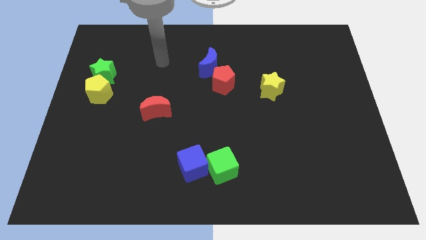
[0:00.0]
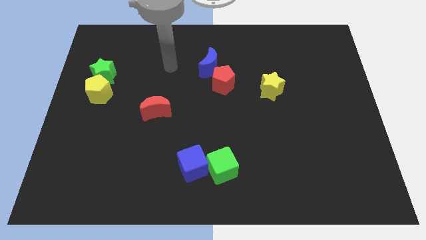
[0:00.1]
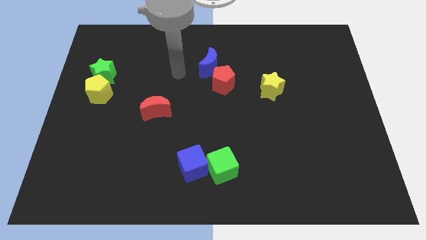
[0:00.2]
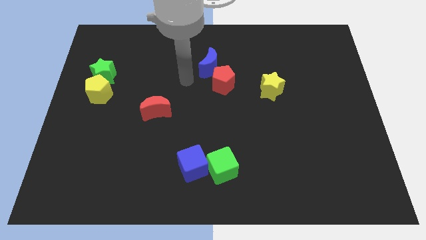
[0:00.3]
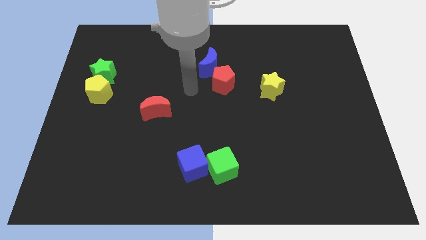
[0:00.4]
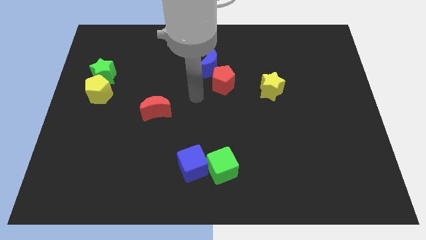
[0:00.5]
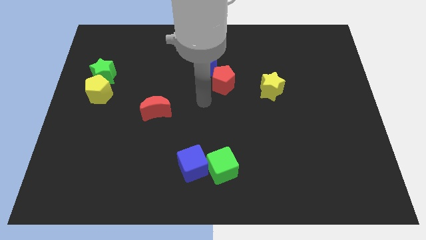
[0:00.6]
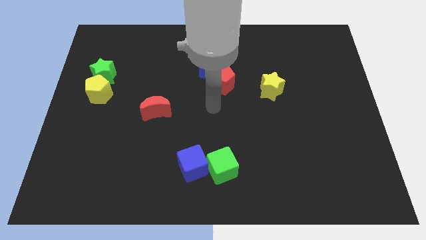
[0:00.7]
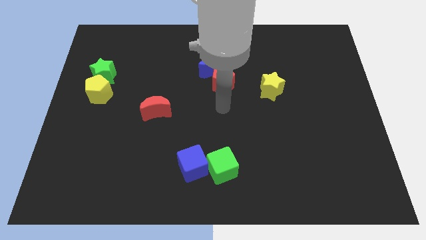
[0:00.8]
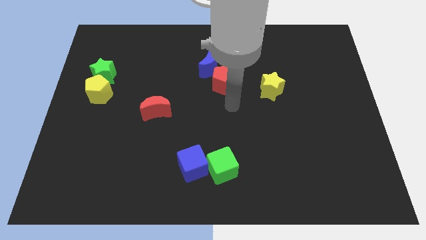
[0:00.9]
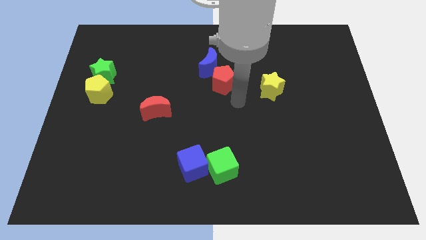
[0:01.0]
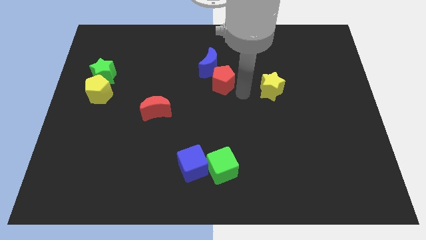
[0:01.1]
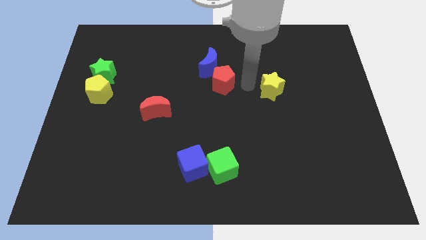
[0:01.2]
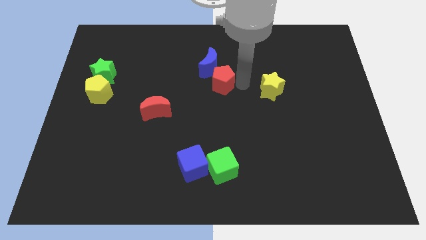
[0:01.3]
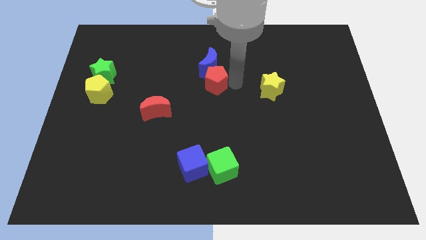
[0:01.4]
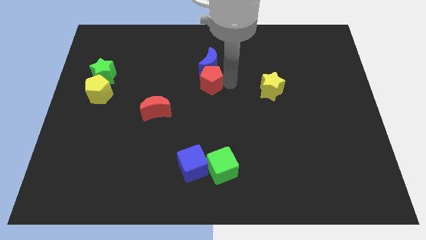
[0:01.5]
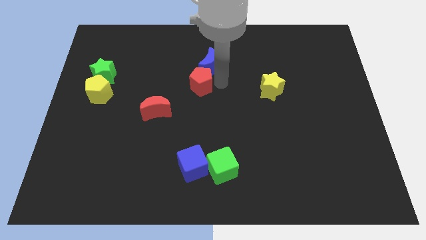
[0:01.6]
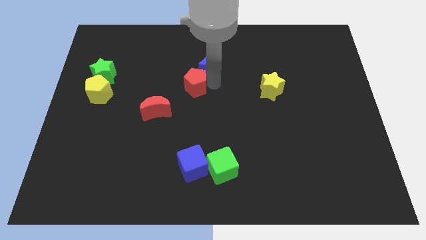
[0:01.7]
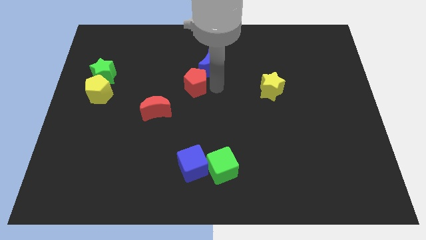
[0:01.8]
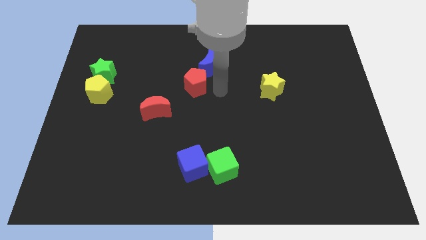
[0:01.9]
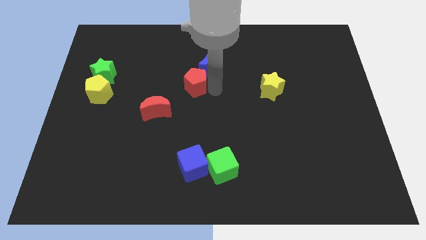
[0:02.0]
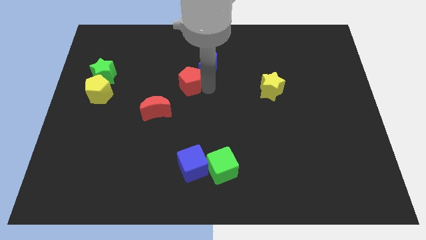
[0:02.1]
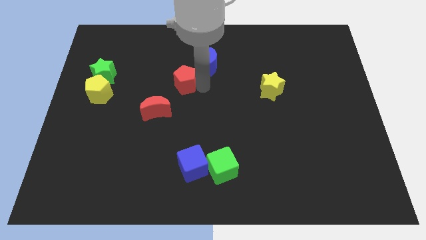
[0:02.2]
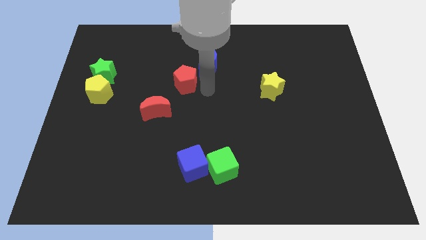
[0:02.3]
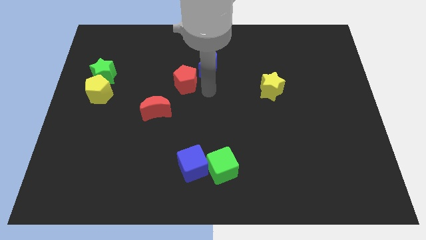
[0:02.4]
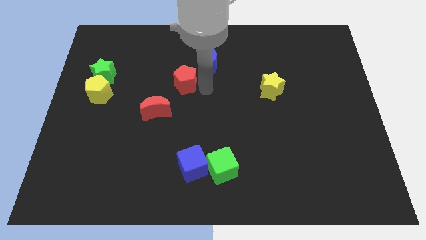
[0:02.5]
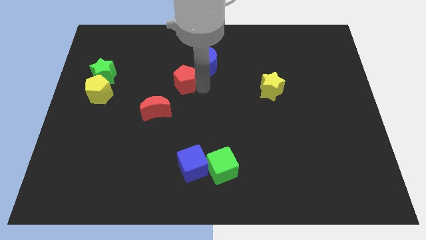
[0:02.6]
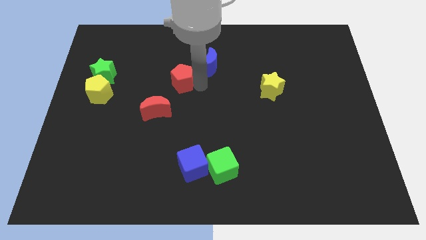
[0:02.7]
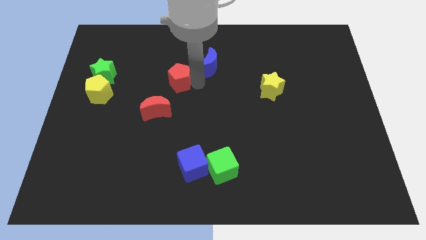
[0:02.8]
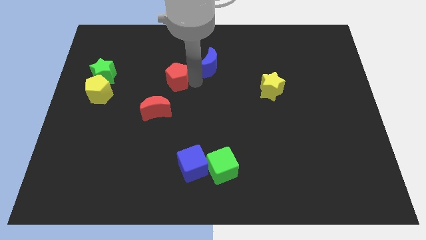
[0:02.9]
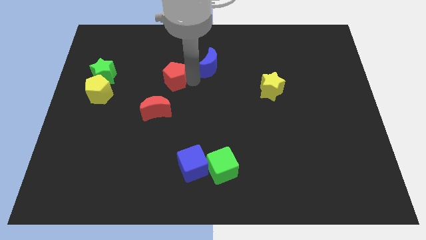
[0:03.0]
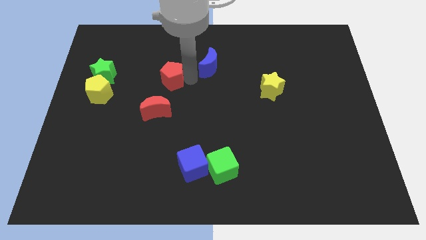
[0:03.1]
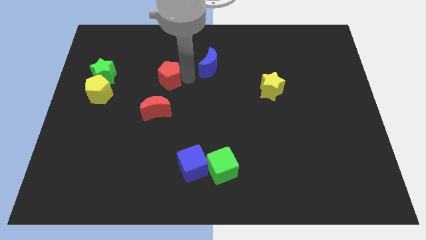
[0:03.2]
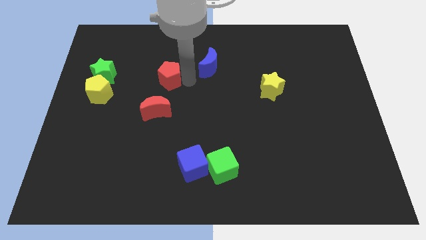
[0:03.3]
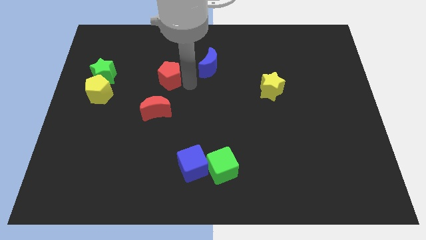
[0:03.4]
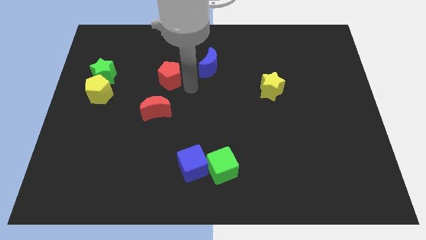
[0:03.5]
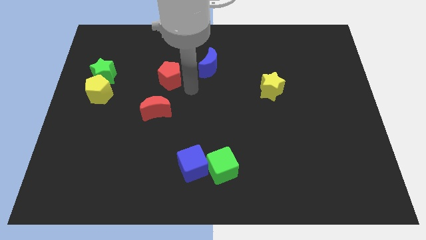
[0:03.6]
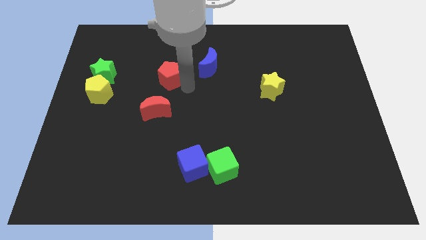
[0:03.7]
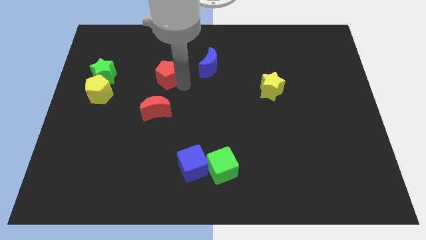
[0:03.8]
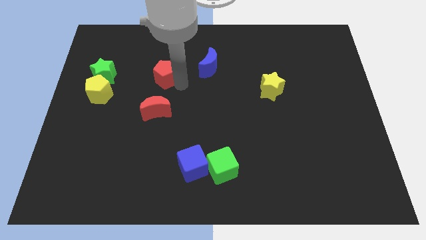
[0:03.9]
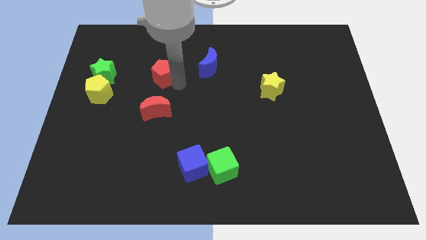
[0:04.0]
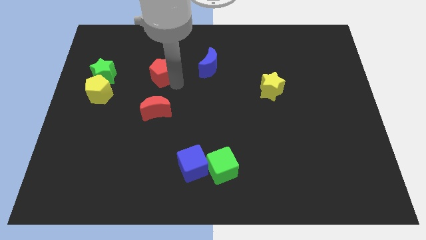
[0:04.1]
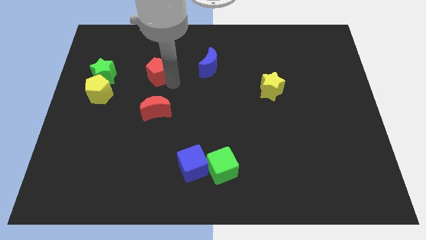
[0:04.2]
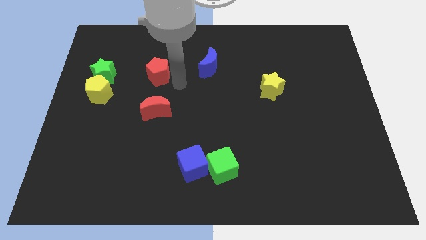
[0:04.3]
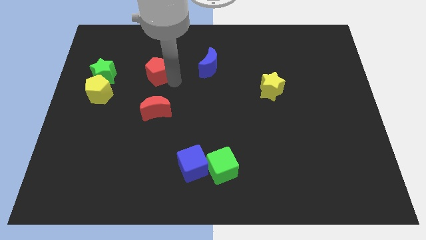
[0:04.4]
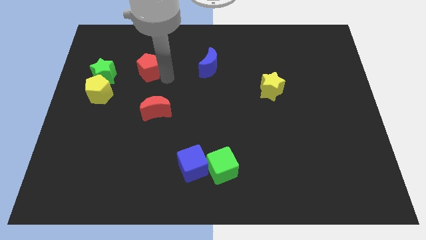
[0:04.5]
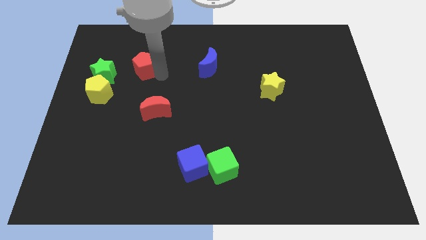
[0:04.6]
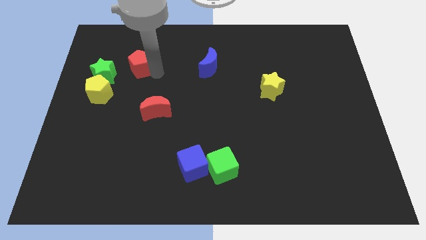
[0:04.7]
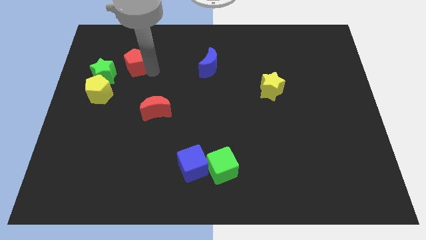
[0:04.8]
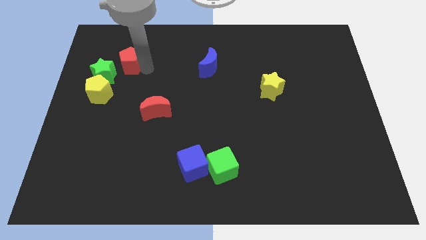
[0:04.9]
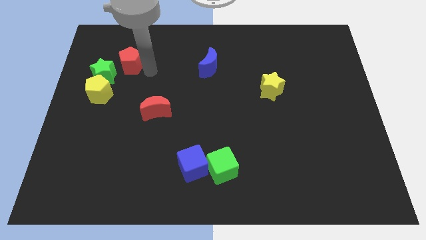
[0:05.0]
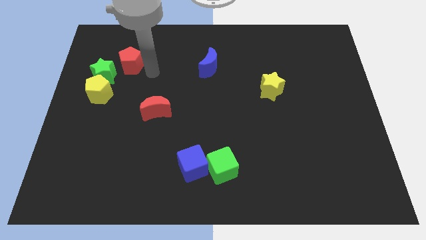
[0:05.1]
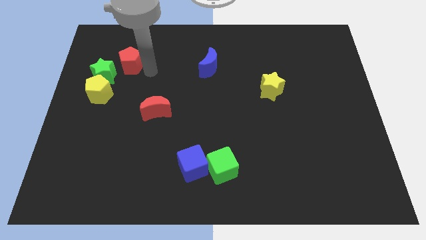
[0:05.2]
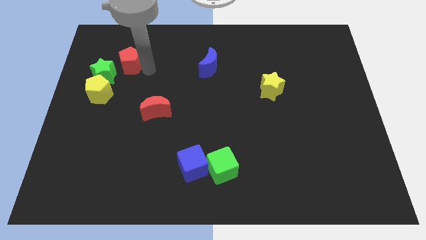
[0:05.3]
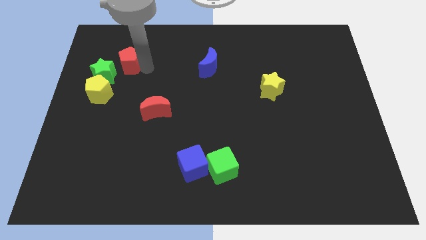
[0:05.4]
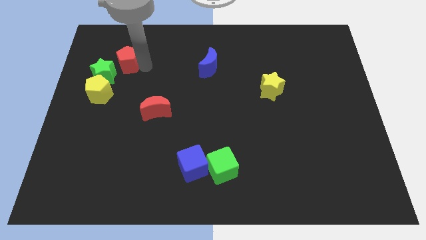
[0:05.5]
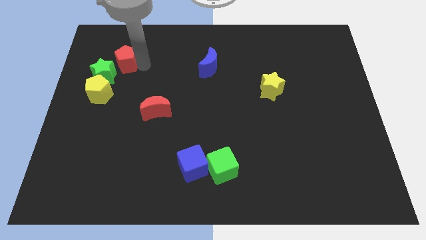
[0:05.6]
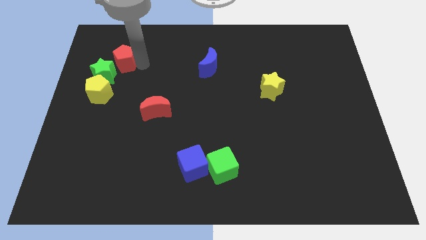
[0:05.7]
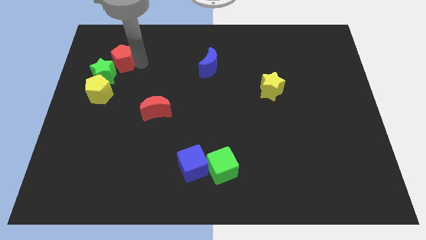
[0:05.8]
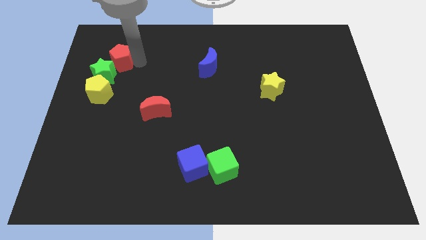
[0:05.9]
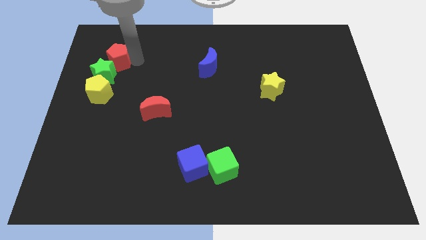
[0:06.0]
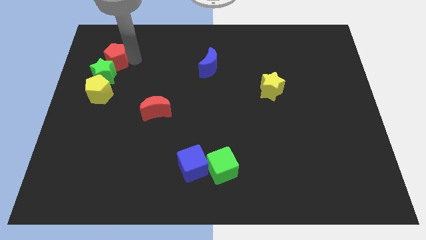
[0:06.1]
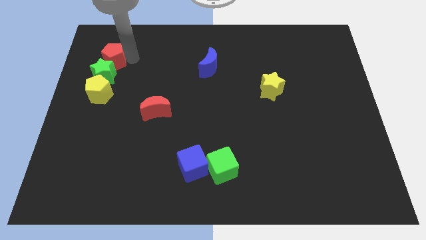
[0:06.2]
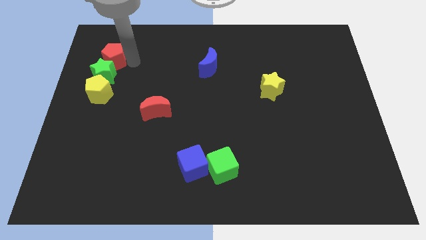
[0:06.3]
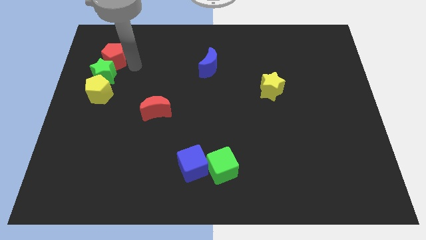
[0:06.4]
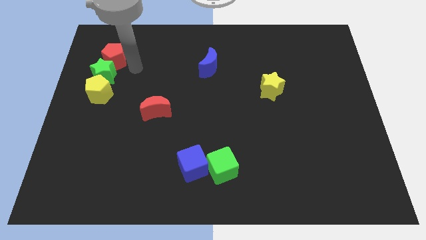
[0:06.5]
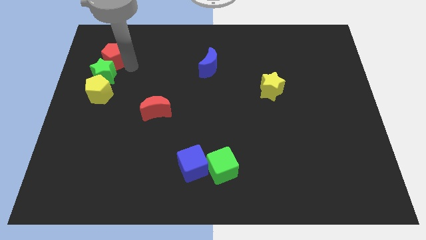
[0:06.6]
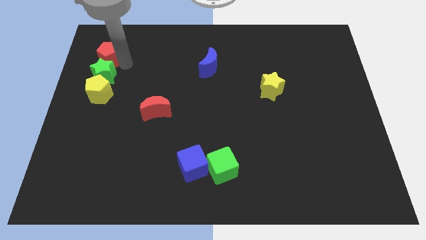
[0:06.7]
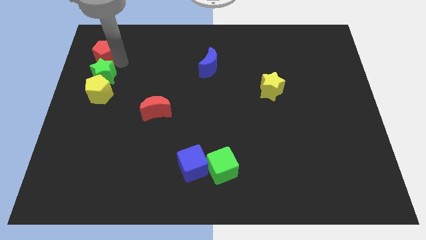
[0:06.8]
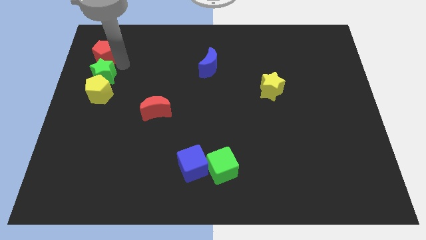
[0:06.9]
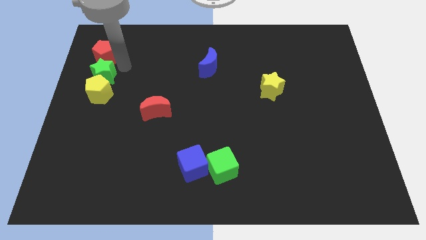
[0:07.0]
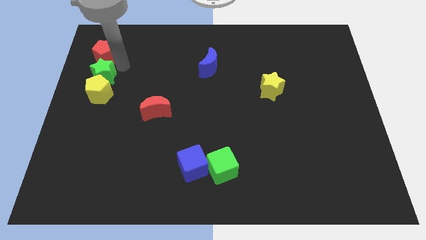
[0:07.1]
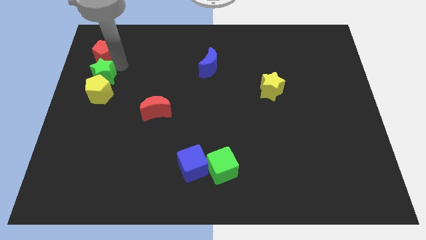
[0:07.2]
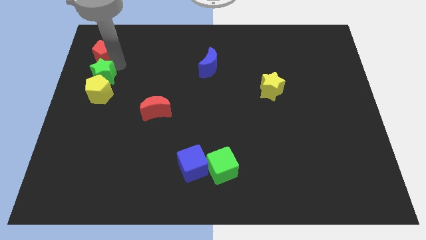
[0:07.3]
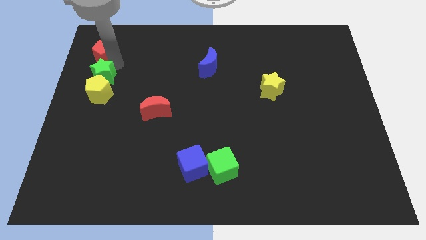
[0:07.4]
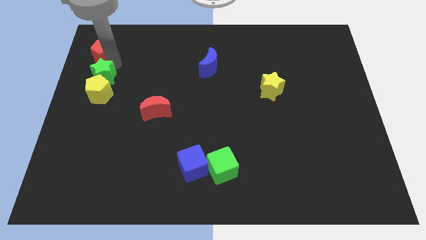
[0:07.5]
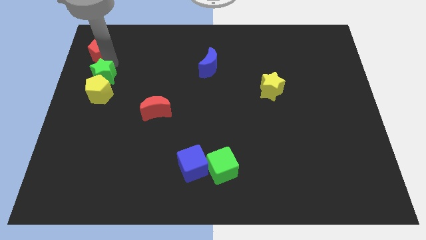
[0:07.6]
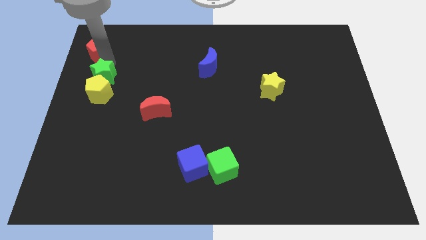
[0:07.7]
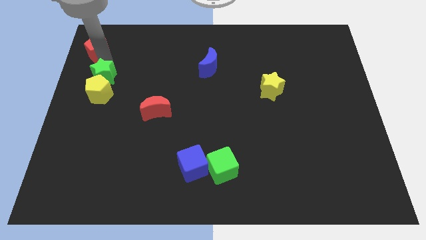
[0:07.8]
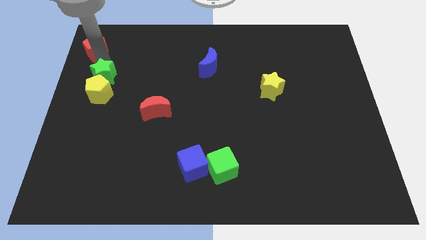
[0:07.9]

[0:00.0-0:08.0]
slide the red pentagon to the top left corner
